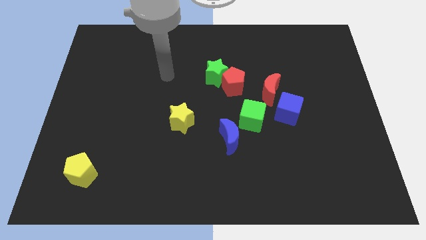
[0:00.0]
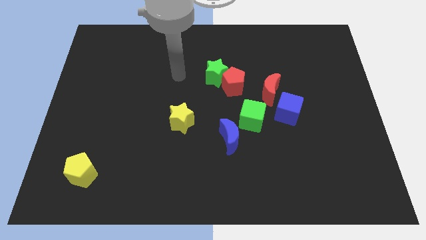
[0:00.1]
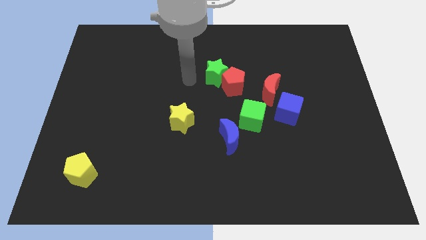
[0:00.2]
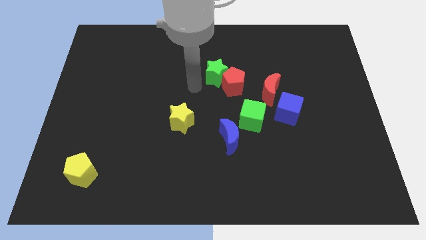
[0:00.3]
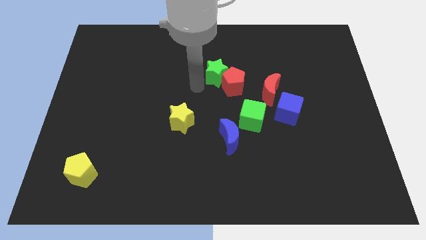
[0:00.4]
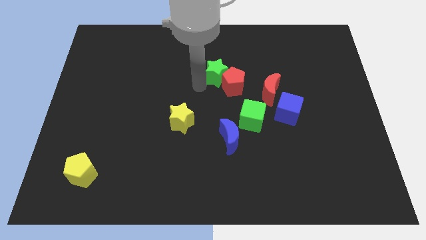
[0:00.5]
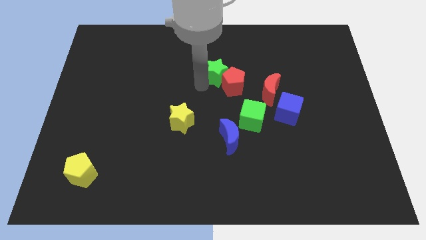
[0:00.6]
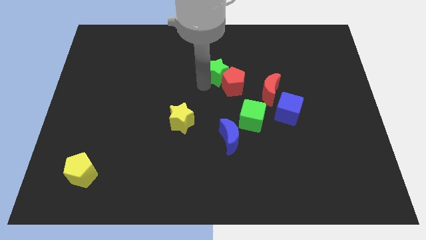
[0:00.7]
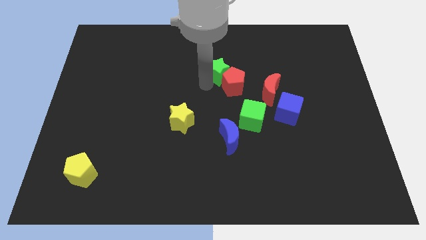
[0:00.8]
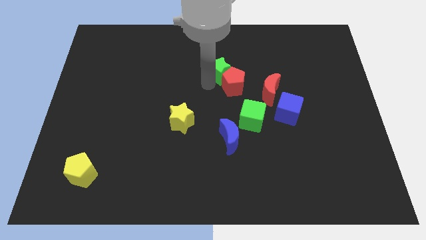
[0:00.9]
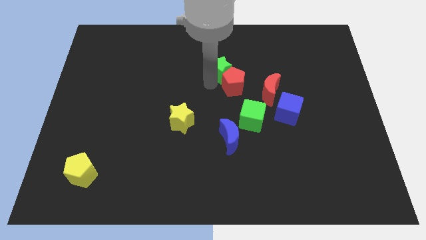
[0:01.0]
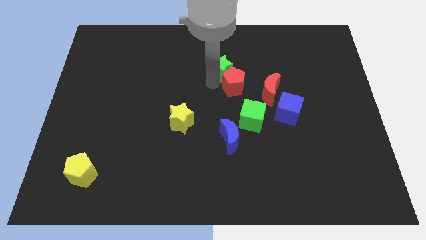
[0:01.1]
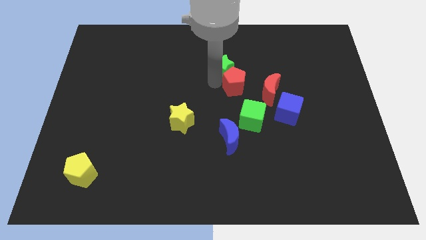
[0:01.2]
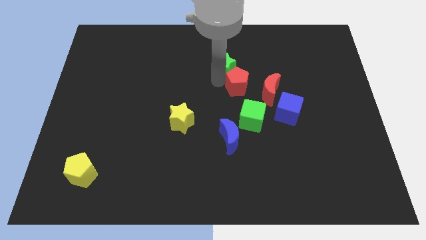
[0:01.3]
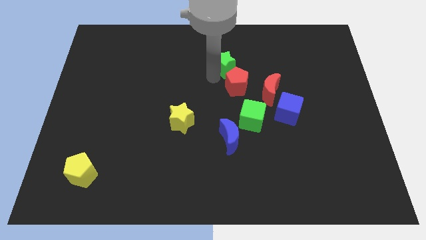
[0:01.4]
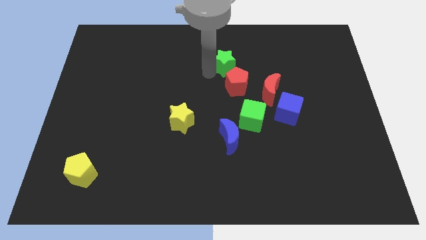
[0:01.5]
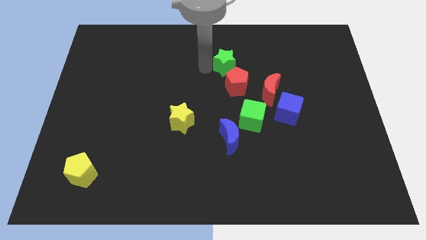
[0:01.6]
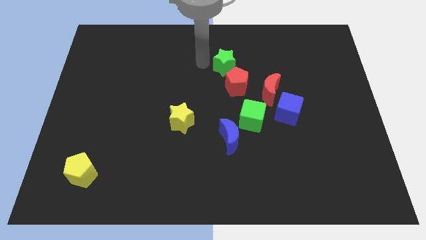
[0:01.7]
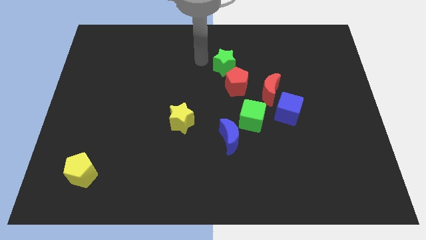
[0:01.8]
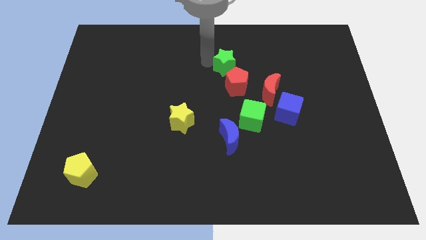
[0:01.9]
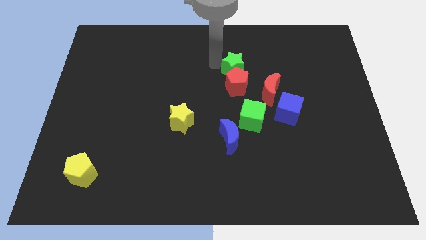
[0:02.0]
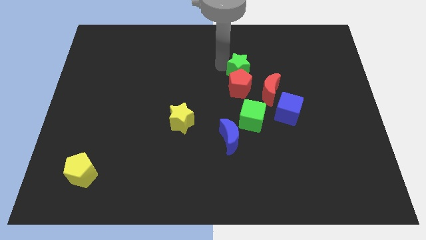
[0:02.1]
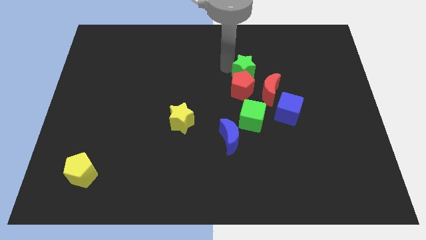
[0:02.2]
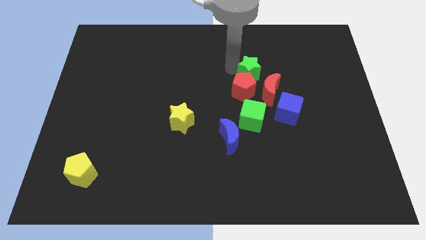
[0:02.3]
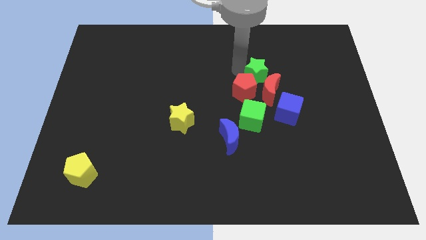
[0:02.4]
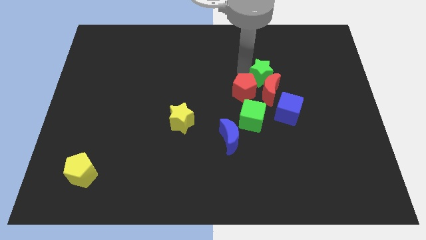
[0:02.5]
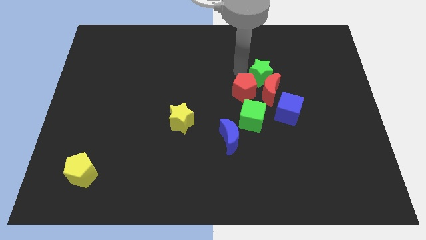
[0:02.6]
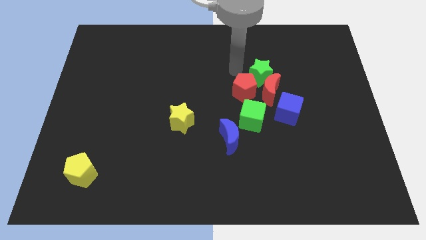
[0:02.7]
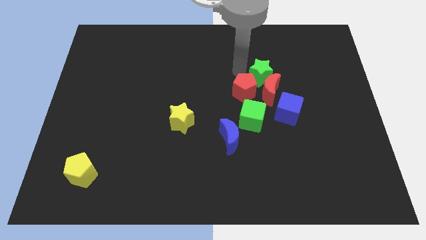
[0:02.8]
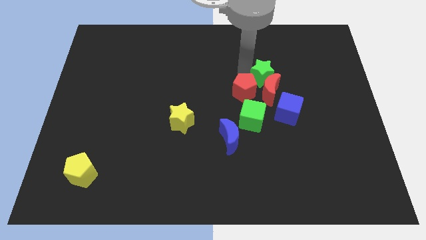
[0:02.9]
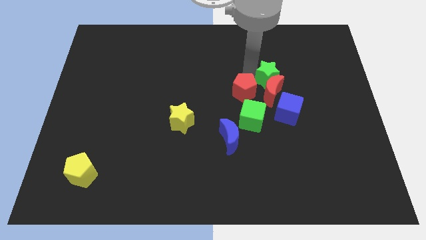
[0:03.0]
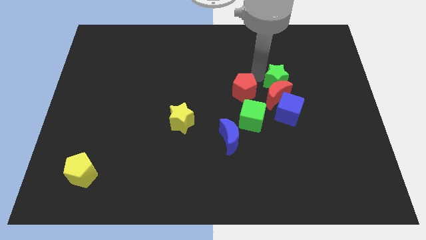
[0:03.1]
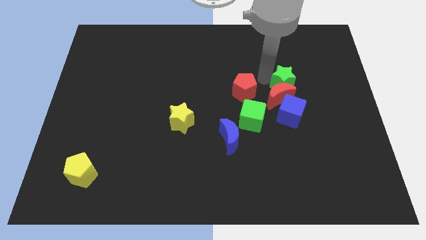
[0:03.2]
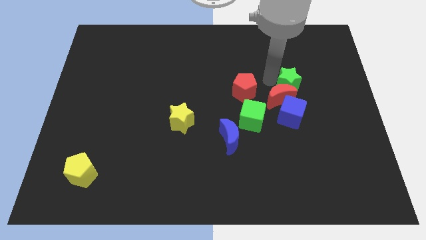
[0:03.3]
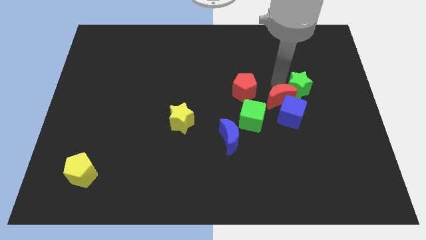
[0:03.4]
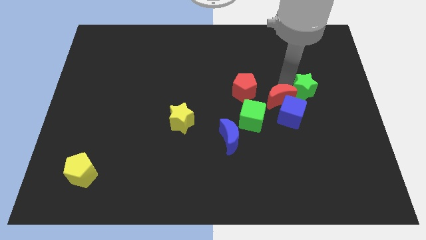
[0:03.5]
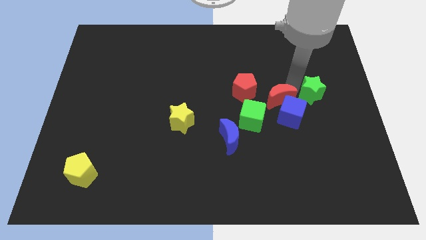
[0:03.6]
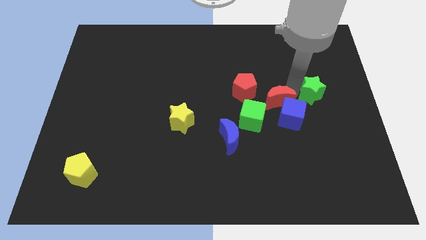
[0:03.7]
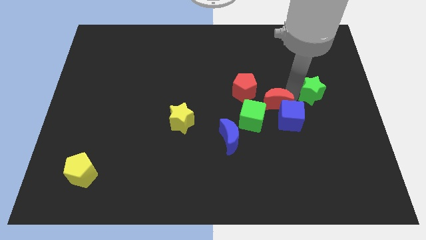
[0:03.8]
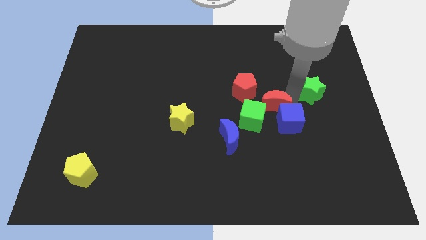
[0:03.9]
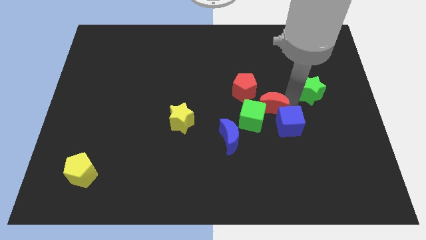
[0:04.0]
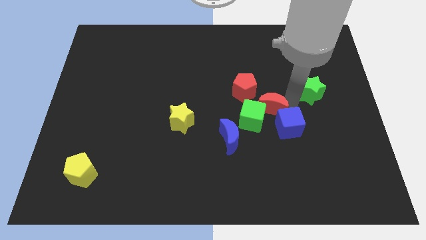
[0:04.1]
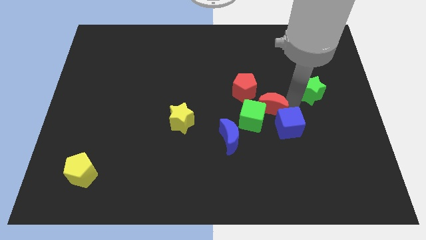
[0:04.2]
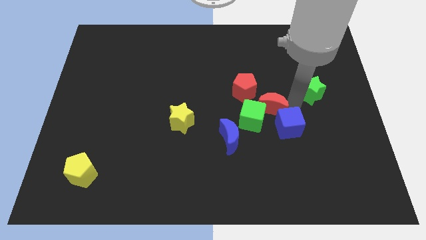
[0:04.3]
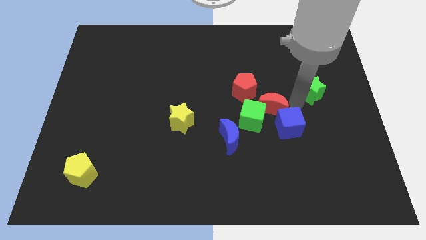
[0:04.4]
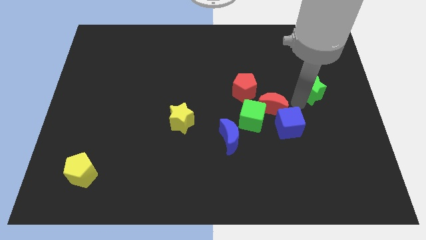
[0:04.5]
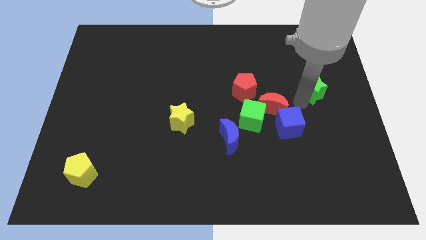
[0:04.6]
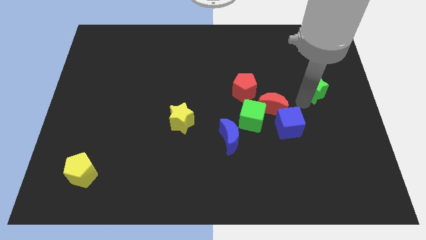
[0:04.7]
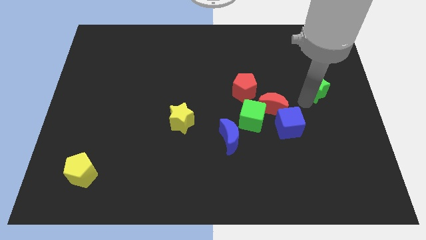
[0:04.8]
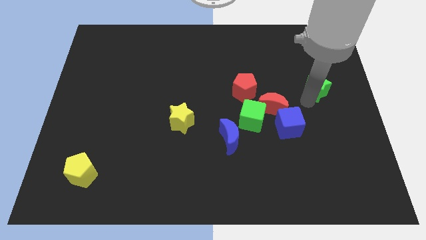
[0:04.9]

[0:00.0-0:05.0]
put the green star to the right side
